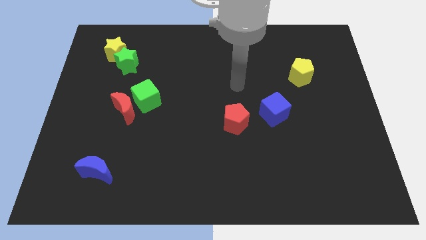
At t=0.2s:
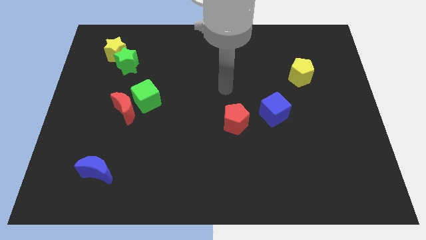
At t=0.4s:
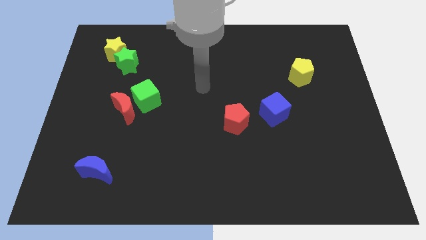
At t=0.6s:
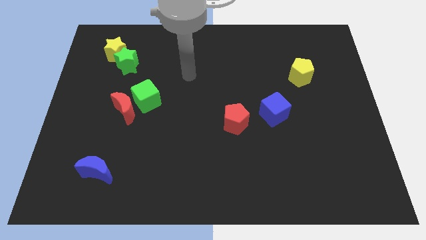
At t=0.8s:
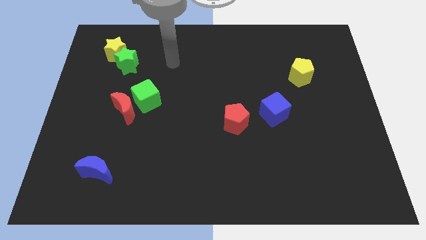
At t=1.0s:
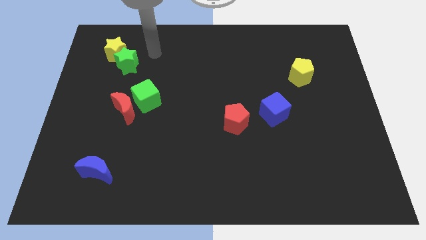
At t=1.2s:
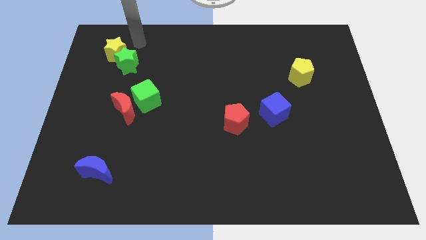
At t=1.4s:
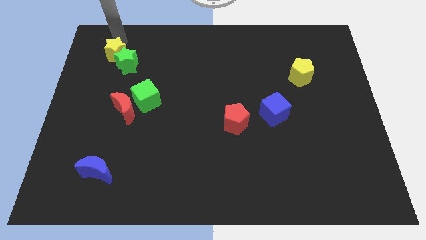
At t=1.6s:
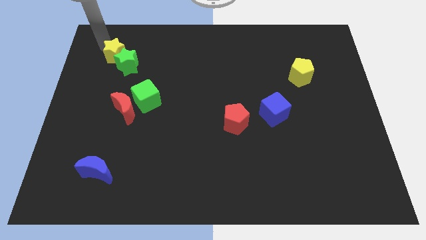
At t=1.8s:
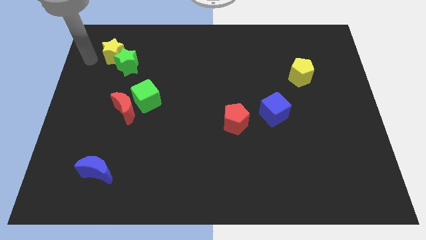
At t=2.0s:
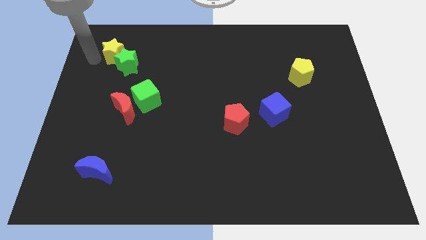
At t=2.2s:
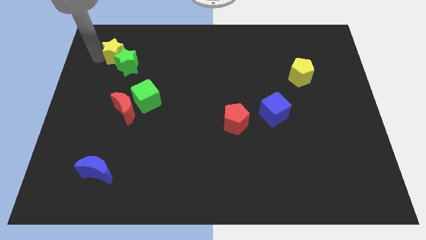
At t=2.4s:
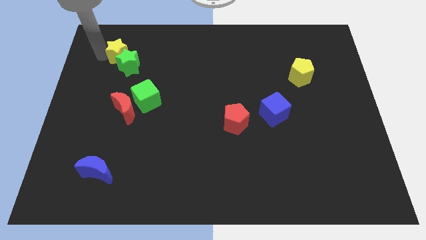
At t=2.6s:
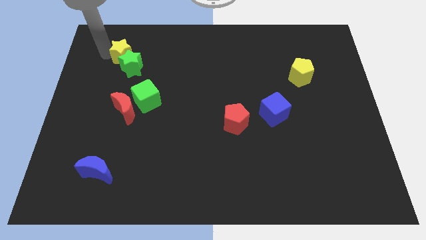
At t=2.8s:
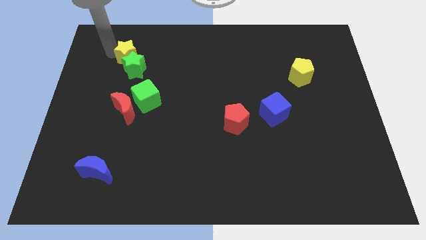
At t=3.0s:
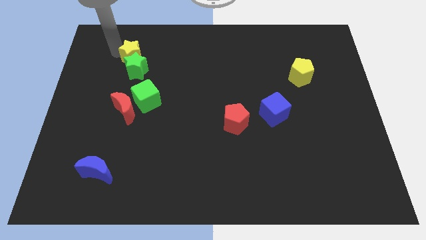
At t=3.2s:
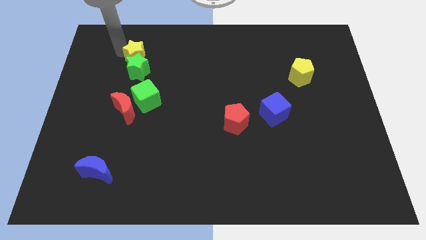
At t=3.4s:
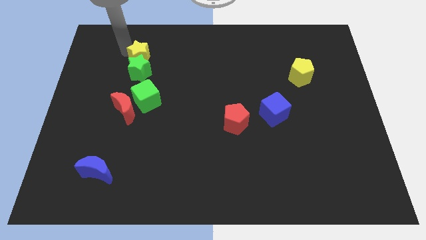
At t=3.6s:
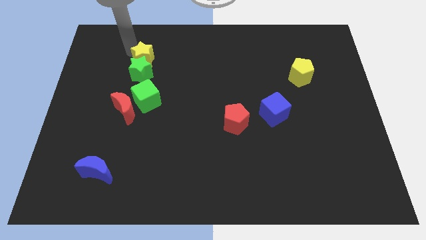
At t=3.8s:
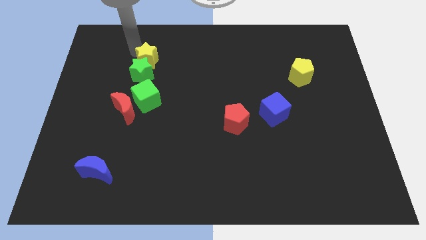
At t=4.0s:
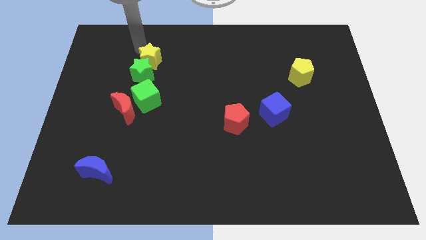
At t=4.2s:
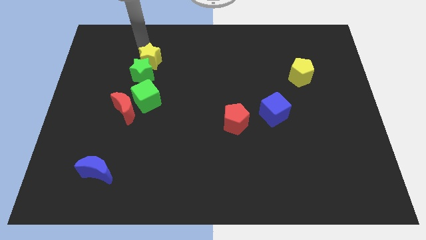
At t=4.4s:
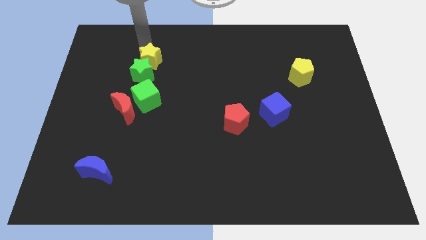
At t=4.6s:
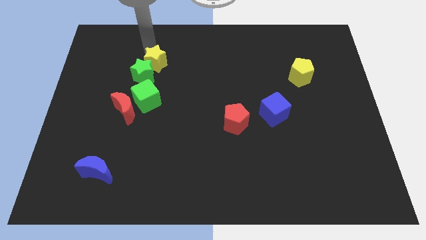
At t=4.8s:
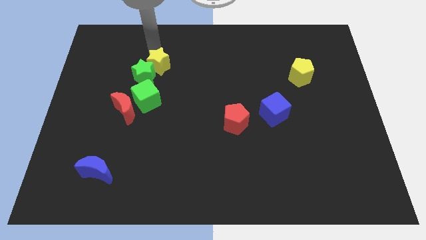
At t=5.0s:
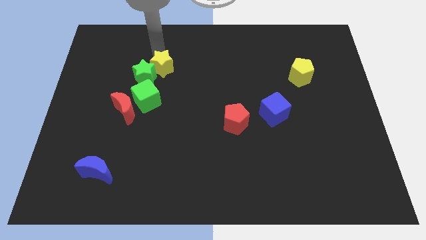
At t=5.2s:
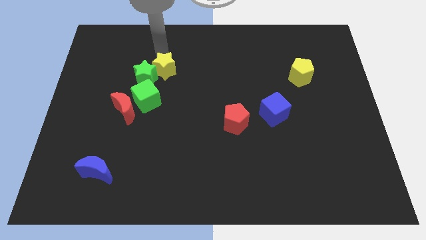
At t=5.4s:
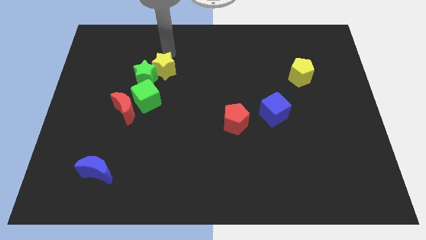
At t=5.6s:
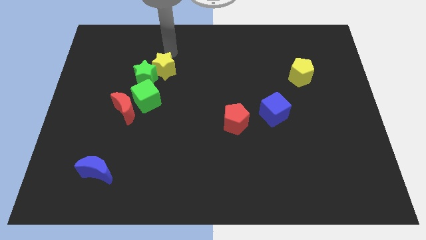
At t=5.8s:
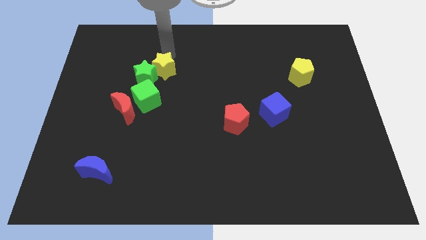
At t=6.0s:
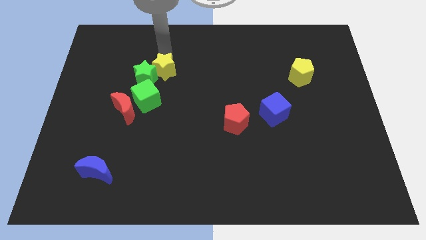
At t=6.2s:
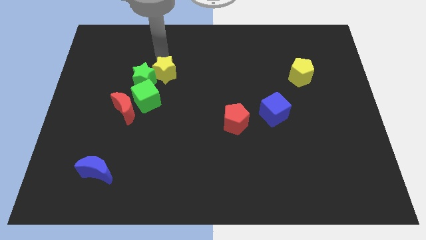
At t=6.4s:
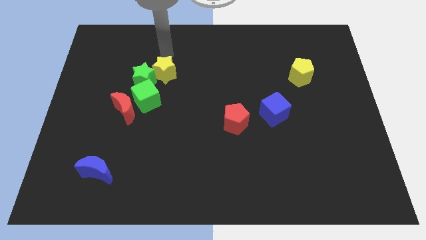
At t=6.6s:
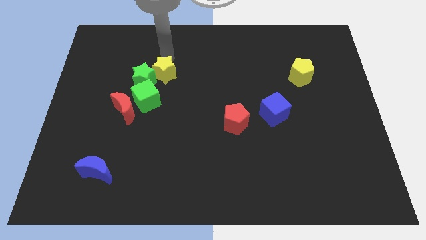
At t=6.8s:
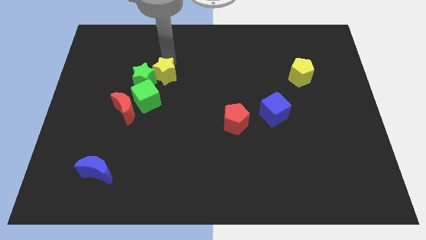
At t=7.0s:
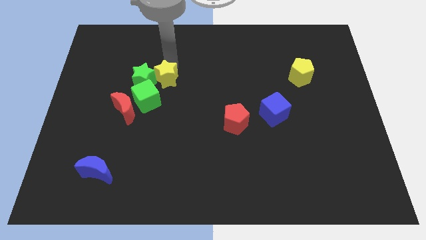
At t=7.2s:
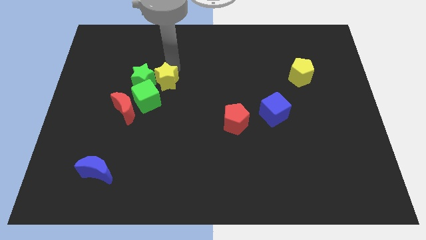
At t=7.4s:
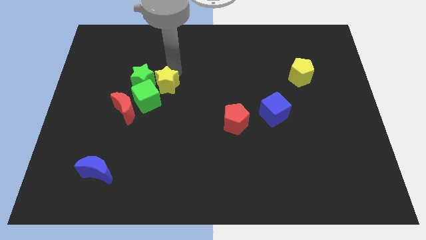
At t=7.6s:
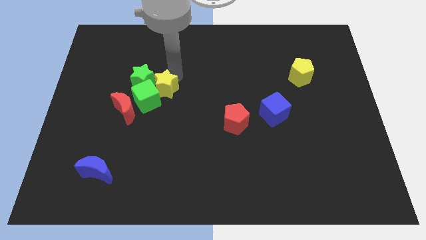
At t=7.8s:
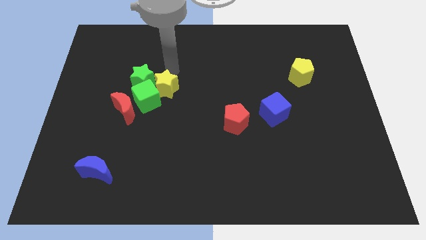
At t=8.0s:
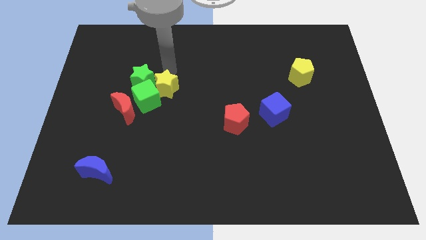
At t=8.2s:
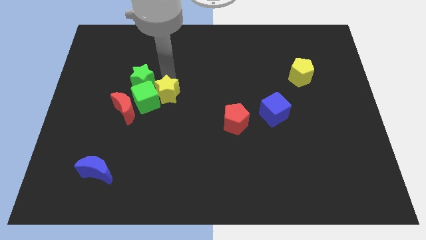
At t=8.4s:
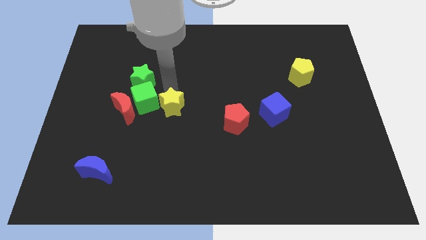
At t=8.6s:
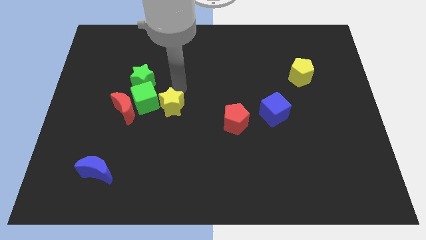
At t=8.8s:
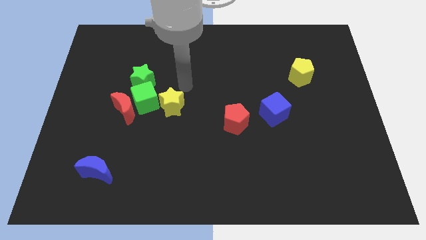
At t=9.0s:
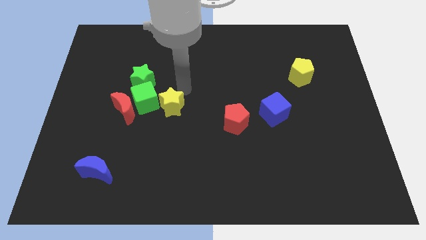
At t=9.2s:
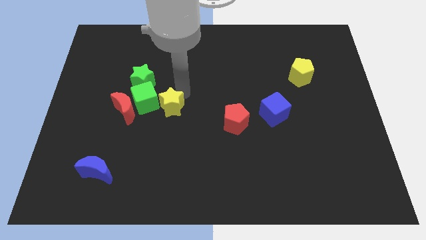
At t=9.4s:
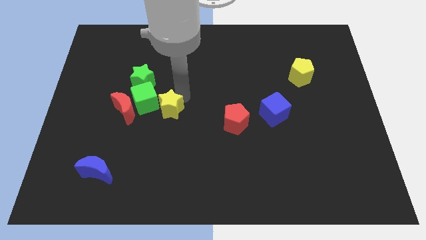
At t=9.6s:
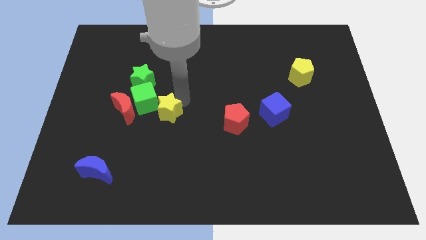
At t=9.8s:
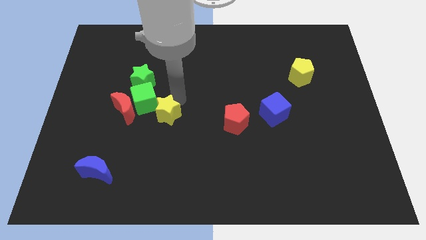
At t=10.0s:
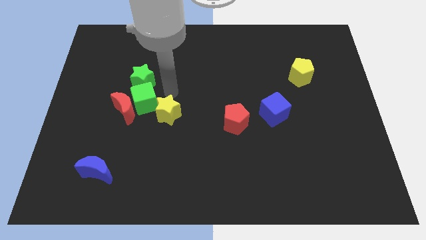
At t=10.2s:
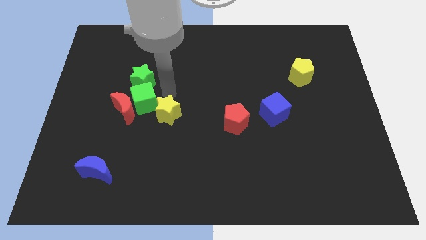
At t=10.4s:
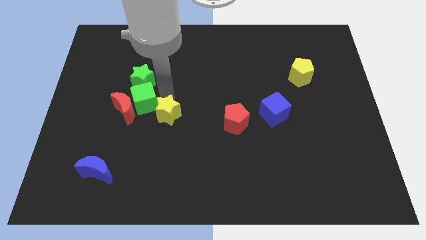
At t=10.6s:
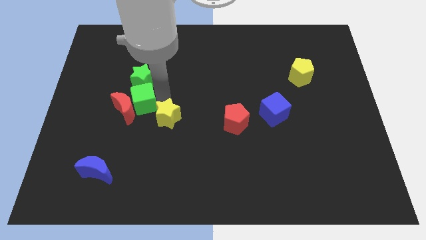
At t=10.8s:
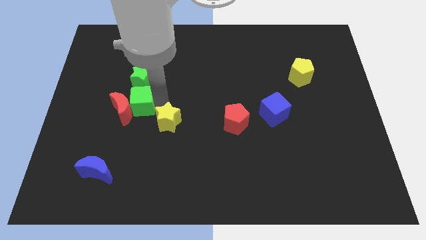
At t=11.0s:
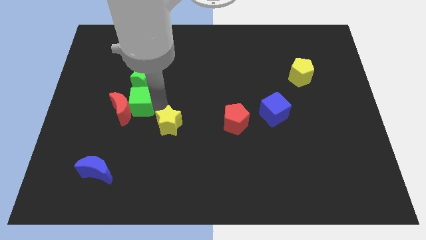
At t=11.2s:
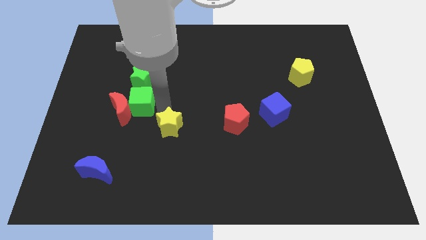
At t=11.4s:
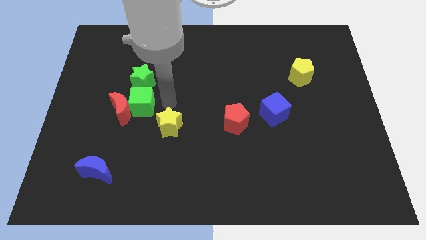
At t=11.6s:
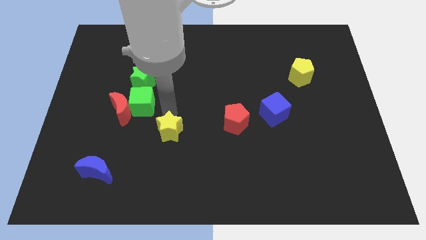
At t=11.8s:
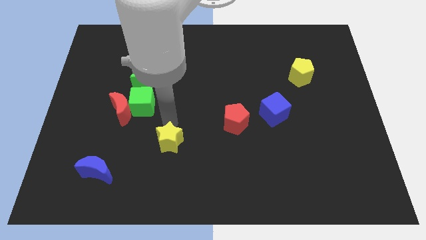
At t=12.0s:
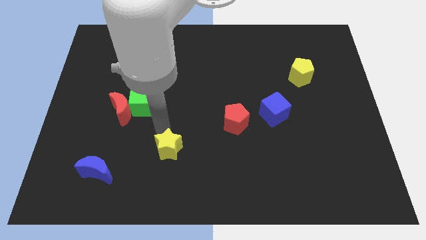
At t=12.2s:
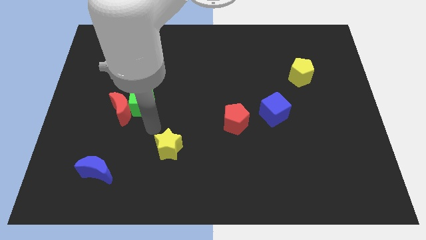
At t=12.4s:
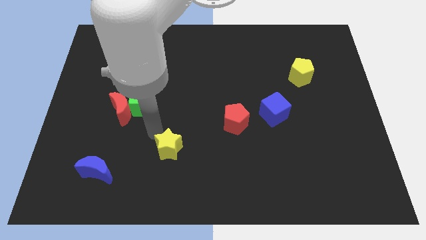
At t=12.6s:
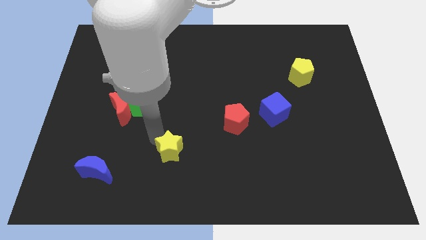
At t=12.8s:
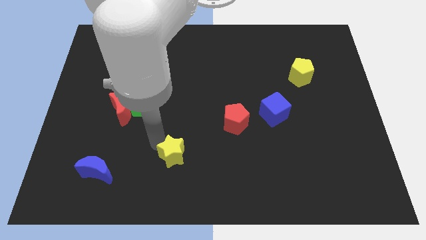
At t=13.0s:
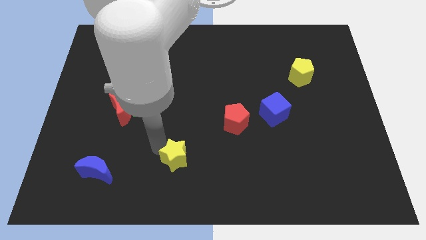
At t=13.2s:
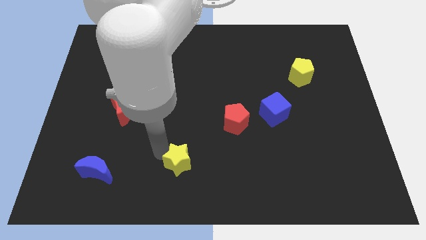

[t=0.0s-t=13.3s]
slide the yellow star to the bottom
